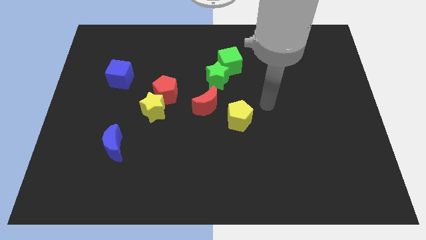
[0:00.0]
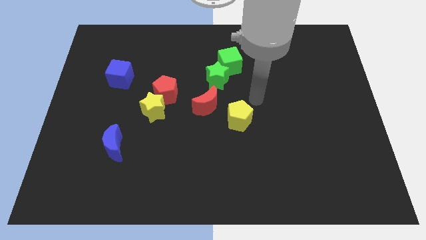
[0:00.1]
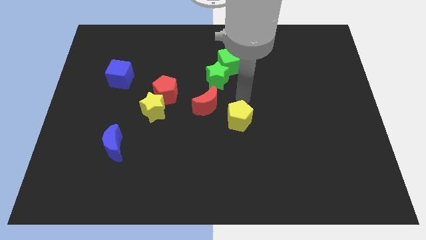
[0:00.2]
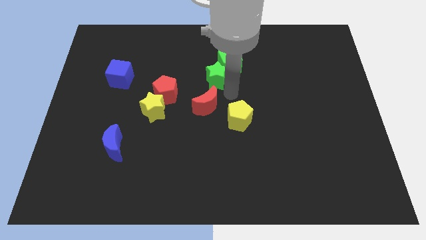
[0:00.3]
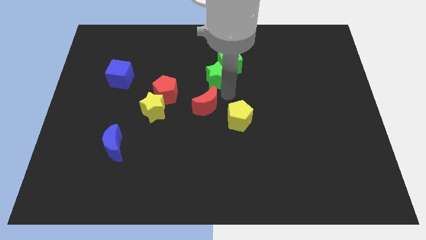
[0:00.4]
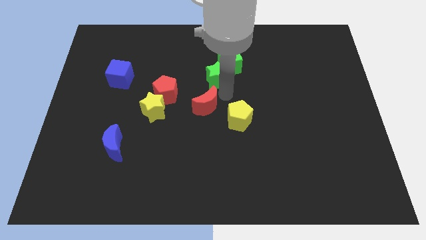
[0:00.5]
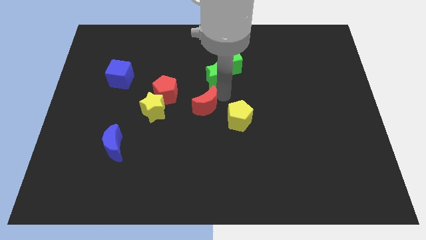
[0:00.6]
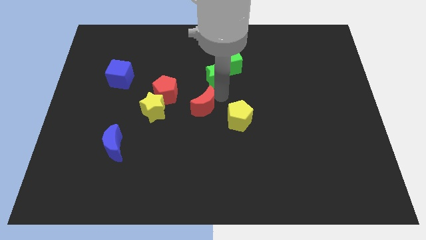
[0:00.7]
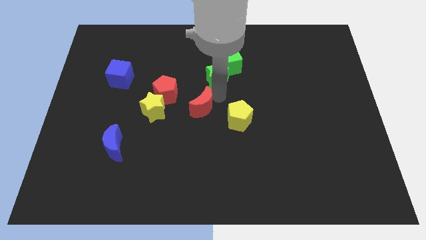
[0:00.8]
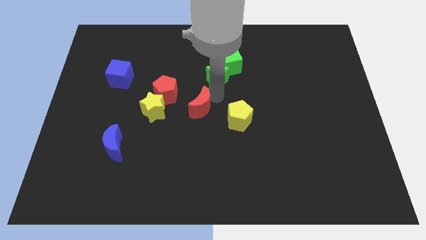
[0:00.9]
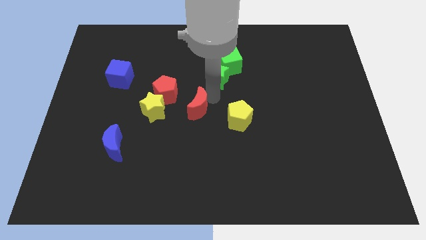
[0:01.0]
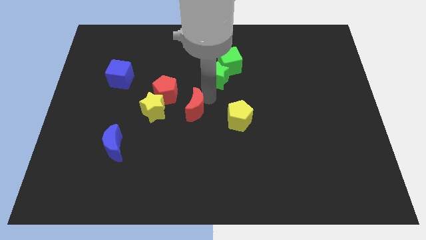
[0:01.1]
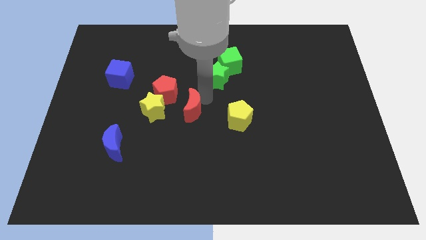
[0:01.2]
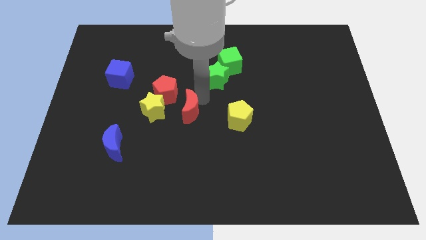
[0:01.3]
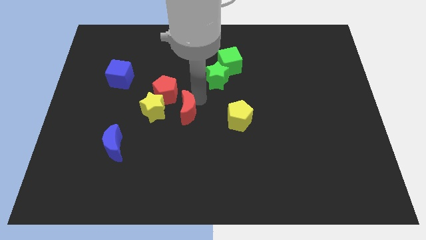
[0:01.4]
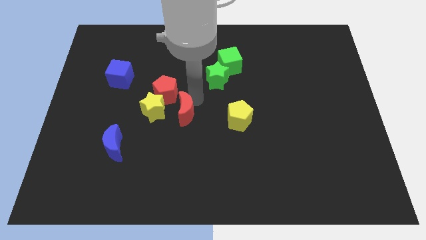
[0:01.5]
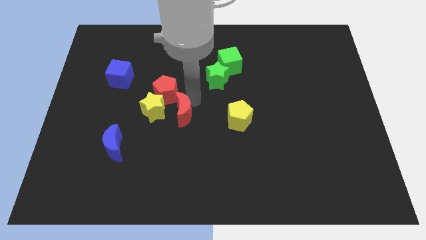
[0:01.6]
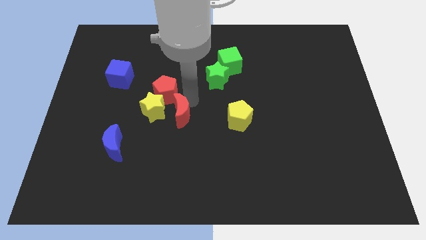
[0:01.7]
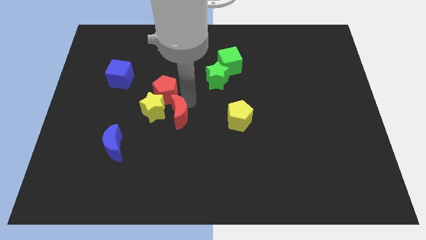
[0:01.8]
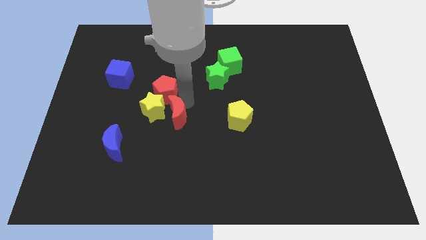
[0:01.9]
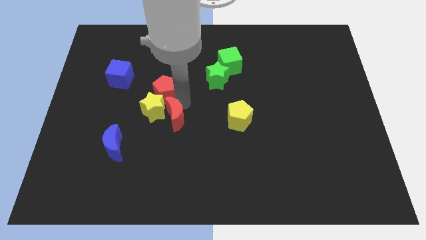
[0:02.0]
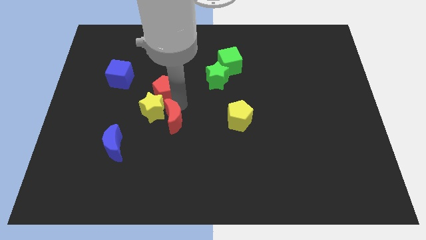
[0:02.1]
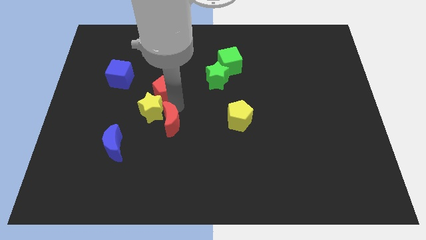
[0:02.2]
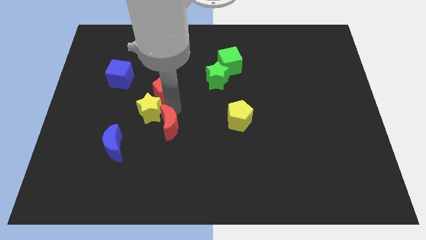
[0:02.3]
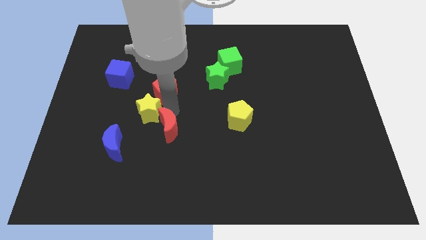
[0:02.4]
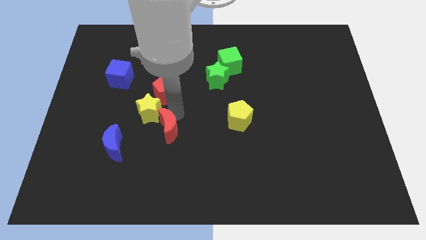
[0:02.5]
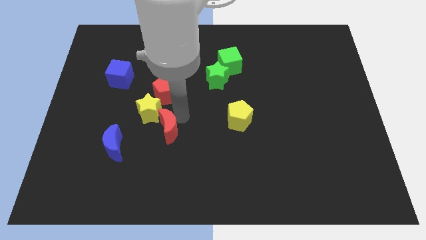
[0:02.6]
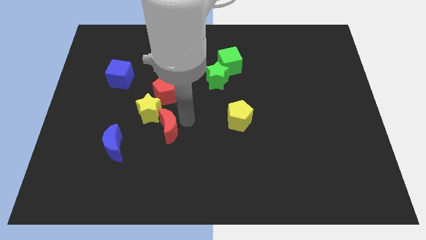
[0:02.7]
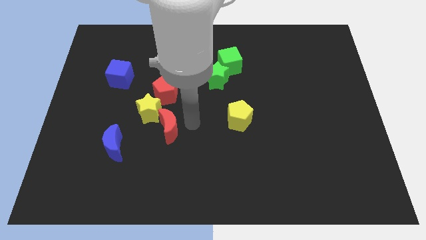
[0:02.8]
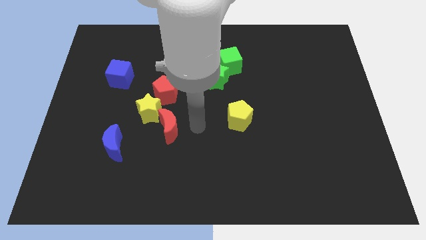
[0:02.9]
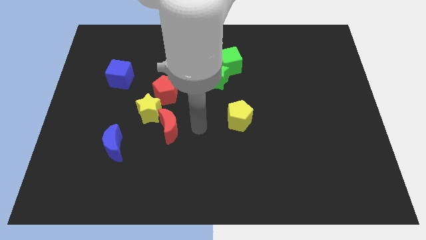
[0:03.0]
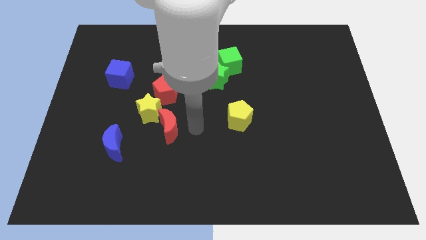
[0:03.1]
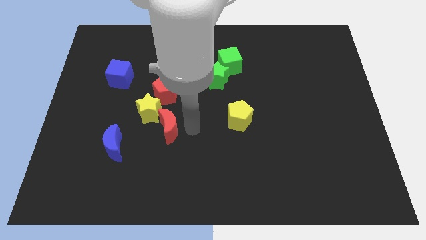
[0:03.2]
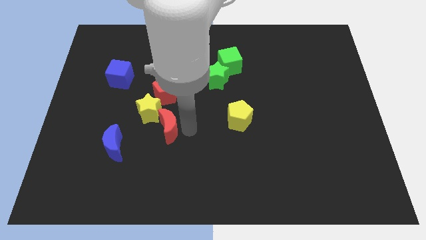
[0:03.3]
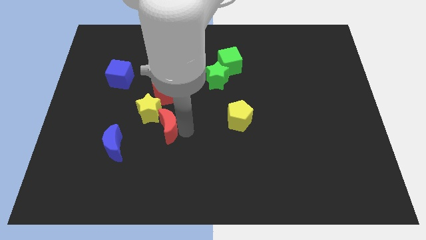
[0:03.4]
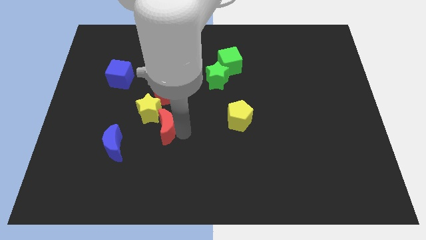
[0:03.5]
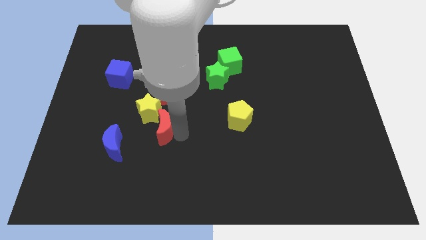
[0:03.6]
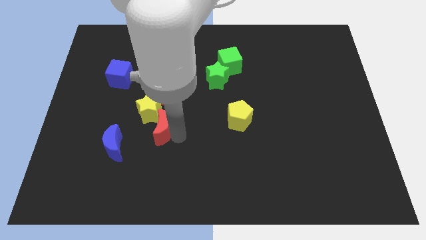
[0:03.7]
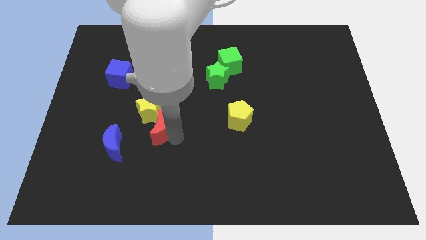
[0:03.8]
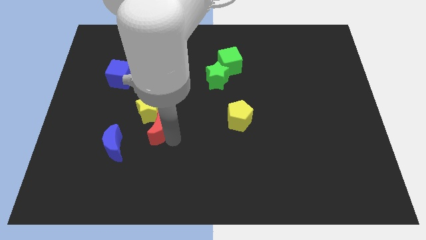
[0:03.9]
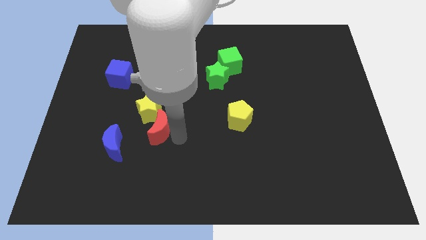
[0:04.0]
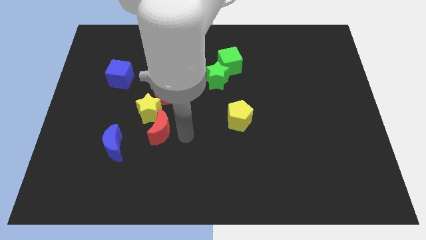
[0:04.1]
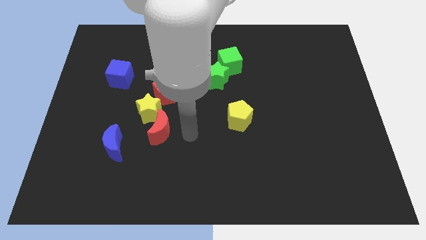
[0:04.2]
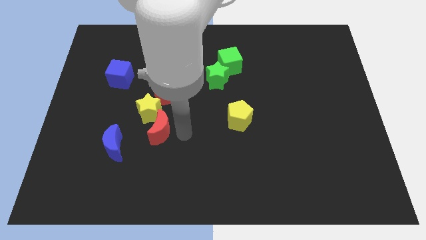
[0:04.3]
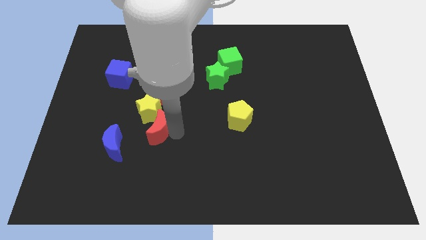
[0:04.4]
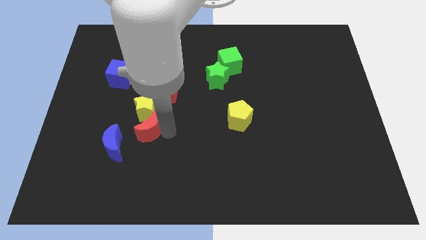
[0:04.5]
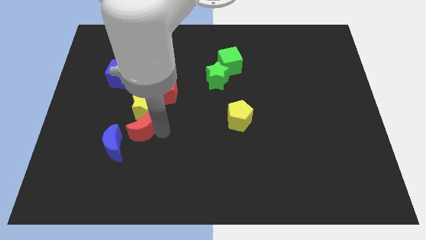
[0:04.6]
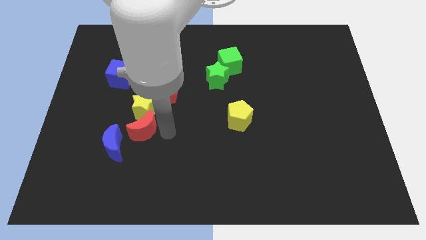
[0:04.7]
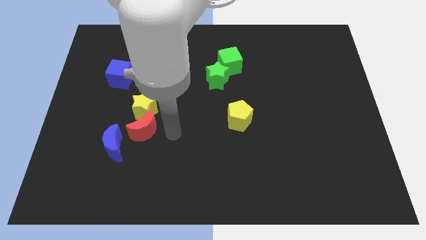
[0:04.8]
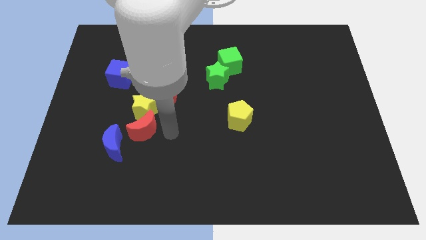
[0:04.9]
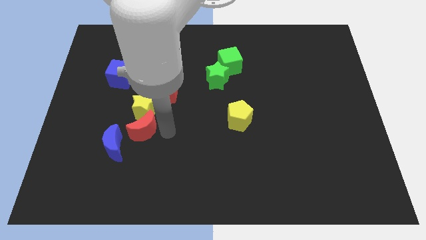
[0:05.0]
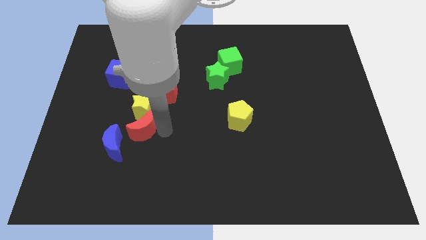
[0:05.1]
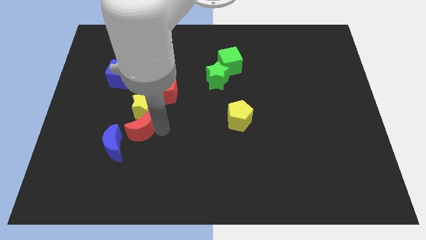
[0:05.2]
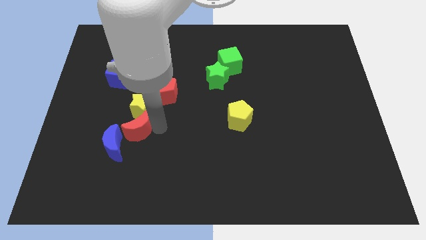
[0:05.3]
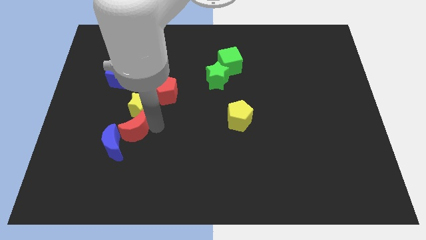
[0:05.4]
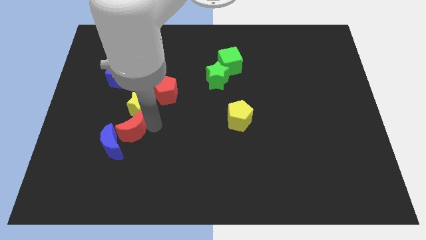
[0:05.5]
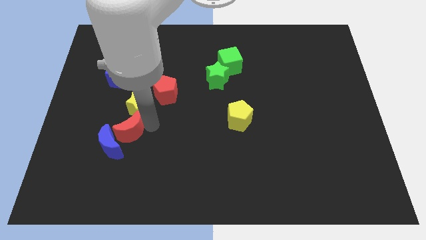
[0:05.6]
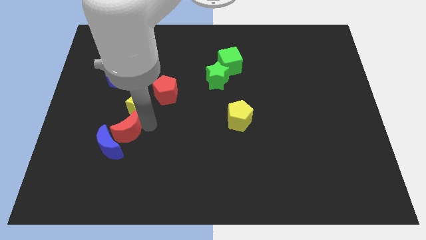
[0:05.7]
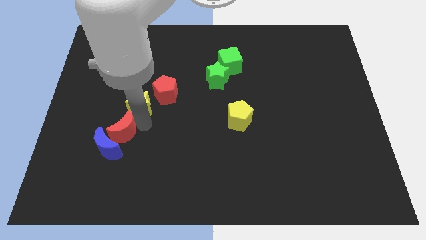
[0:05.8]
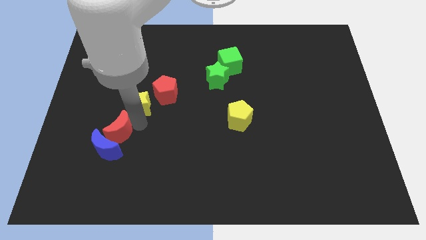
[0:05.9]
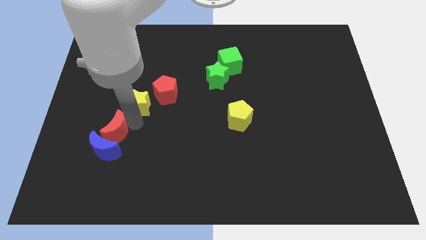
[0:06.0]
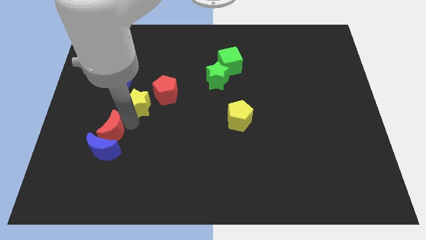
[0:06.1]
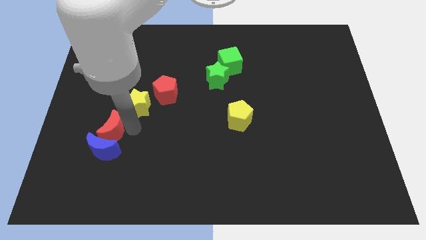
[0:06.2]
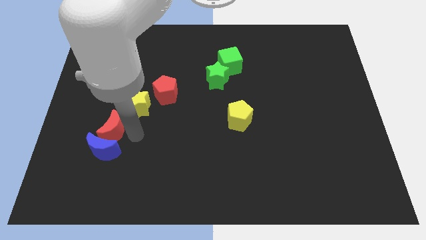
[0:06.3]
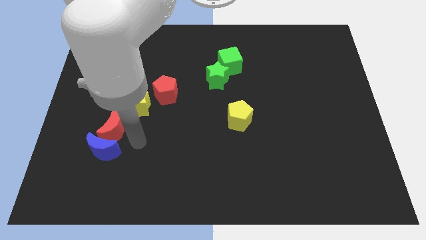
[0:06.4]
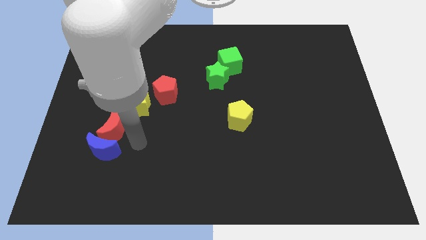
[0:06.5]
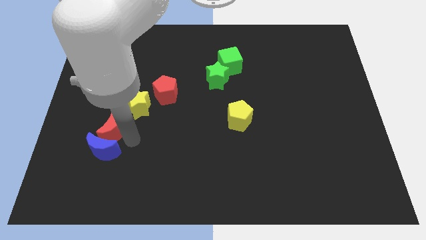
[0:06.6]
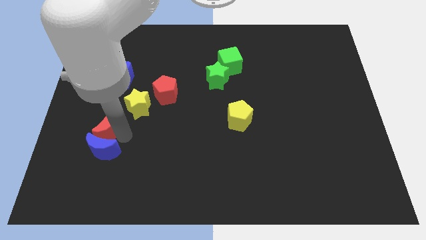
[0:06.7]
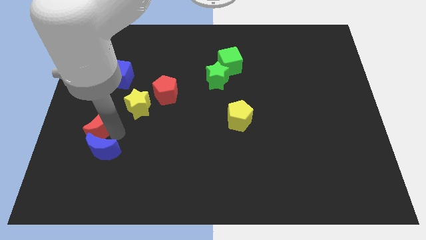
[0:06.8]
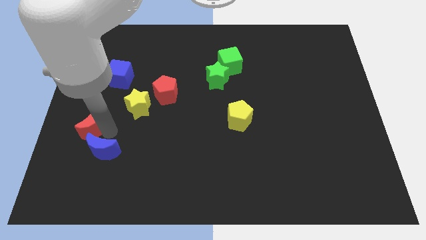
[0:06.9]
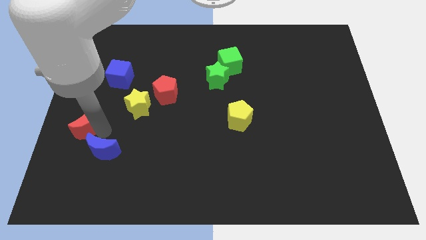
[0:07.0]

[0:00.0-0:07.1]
push the red moon to the left side
